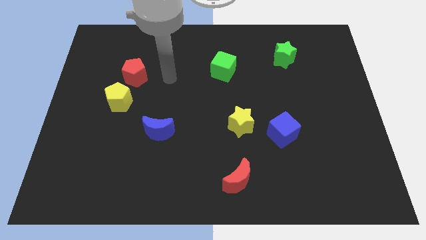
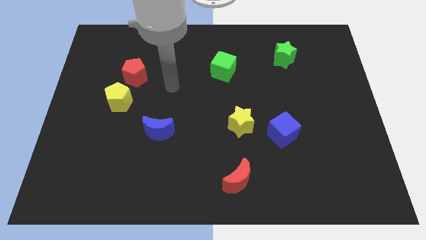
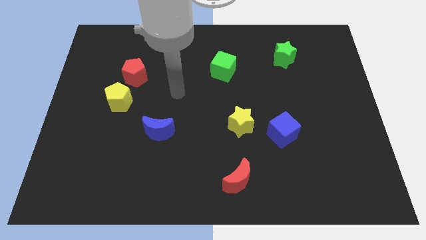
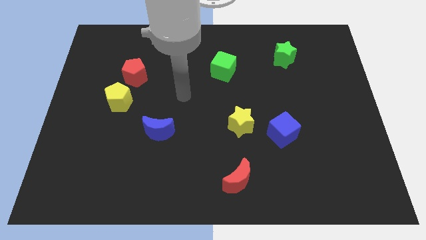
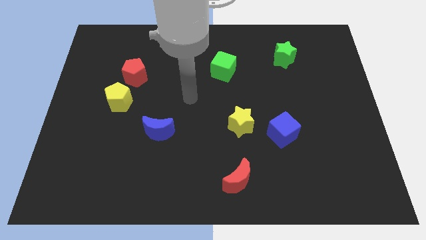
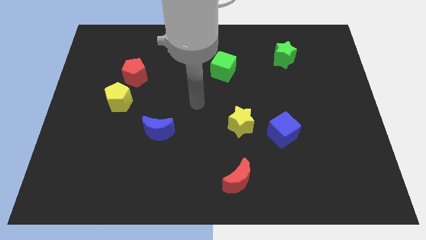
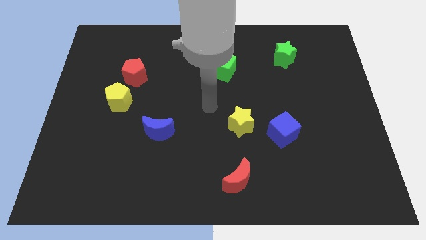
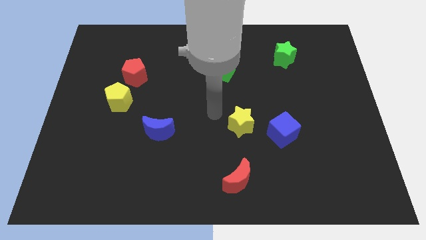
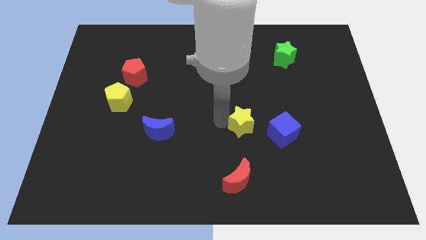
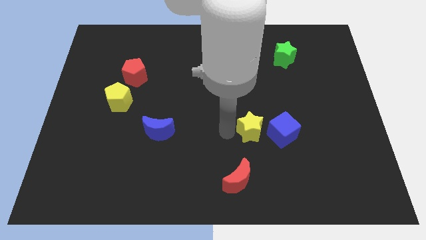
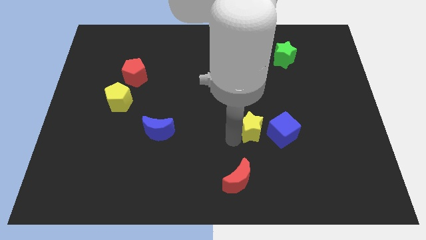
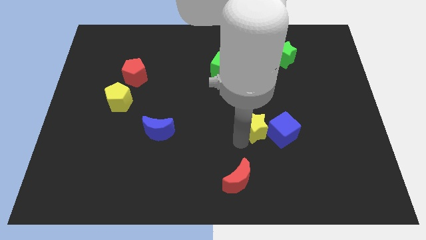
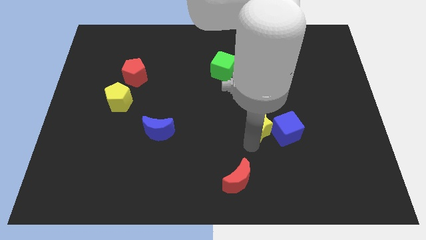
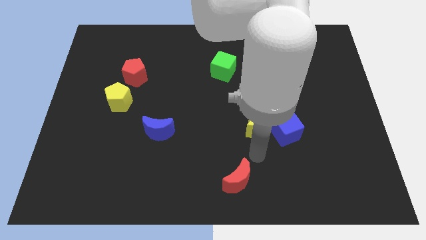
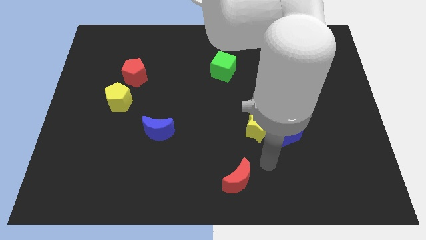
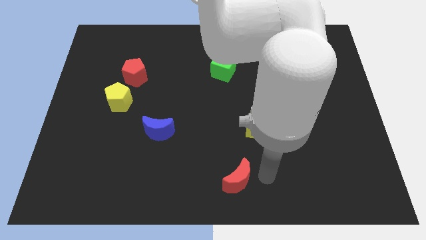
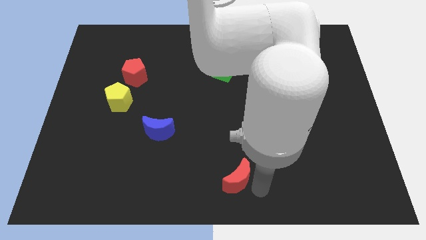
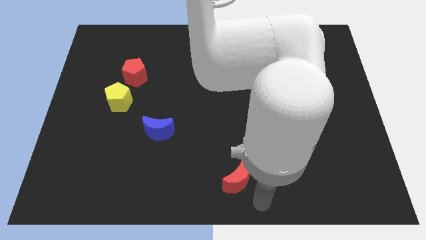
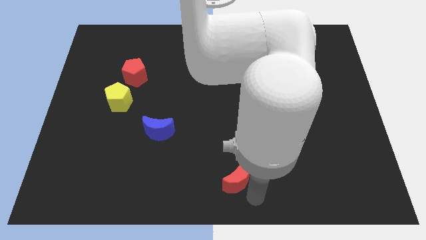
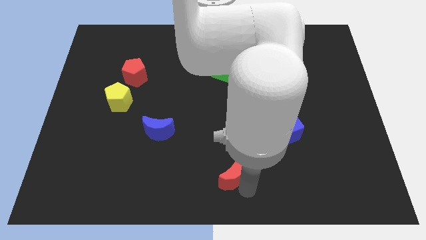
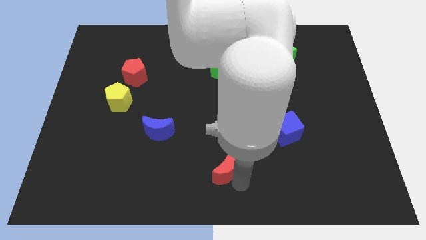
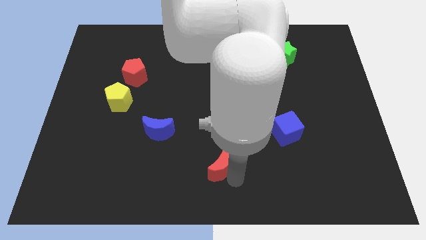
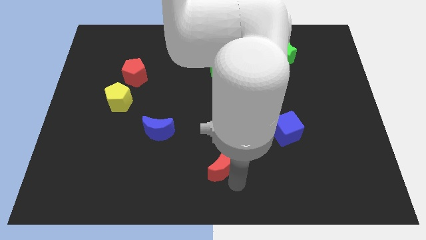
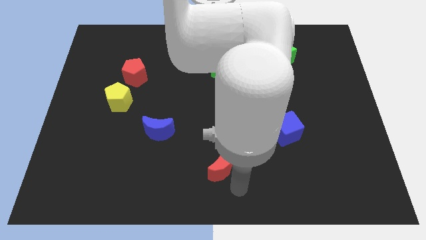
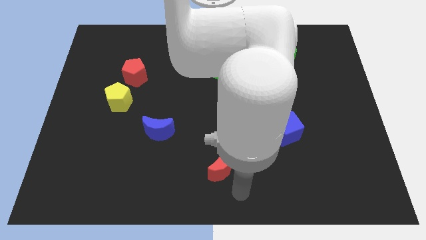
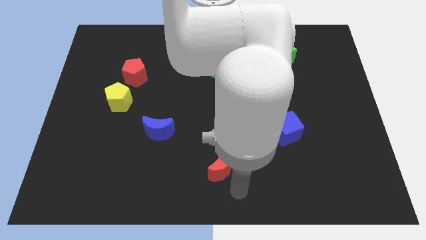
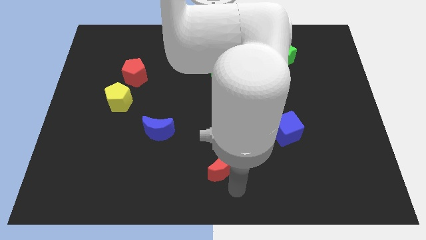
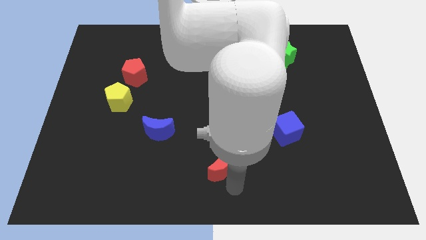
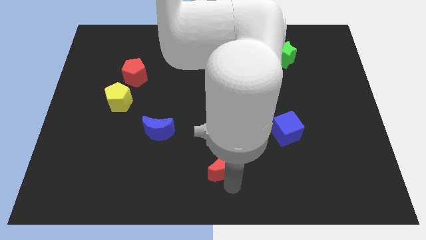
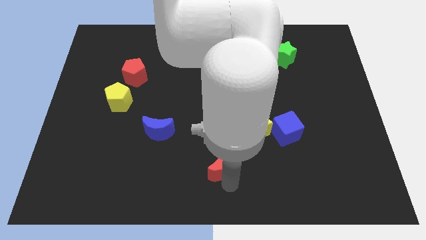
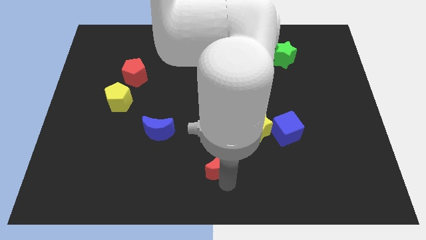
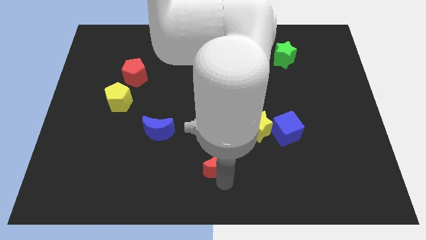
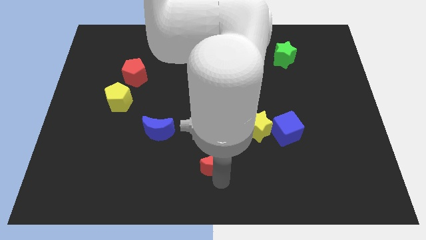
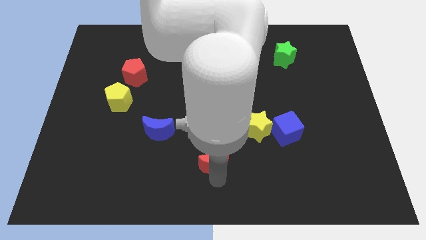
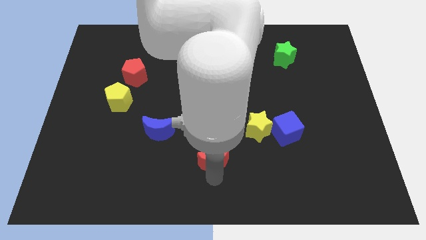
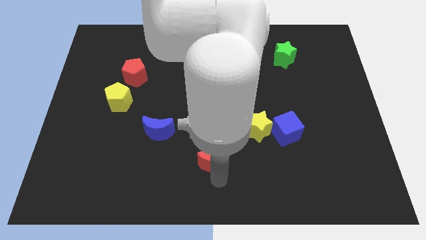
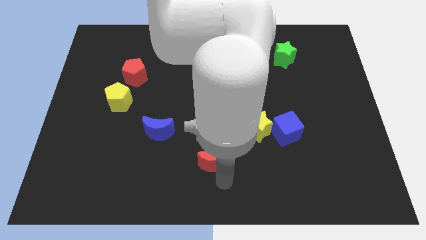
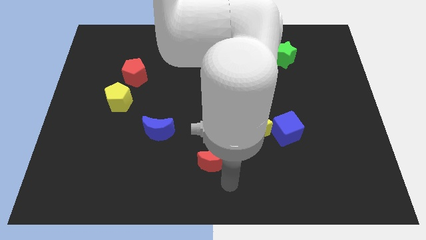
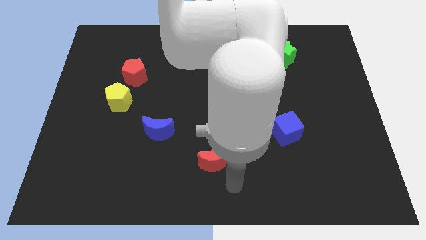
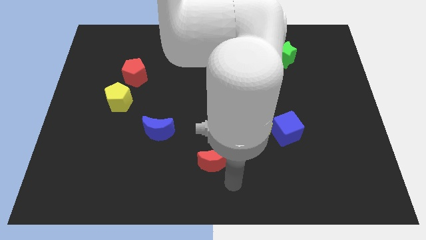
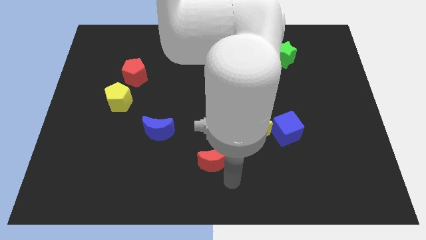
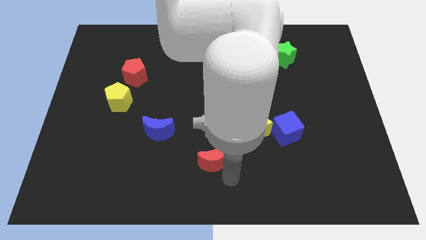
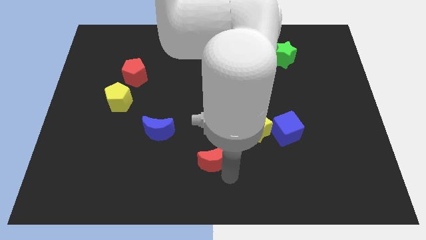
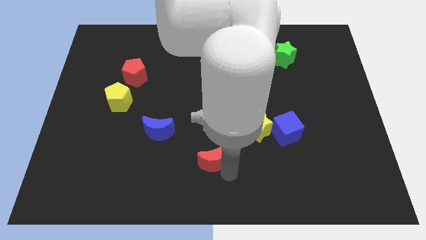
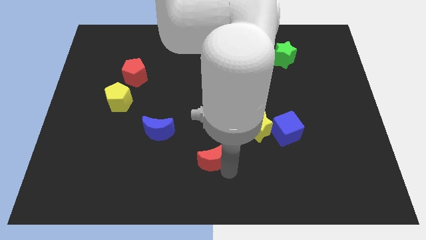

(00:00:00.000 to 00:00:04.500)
slightly push the red moon upwards and left diagonally

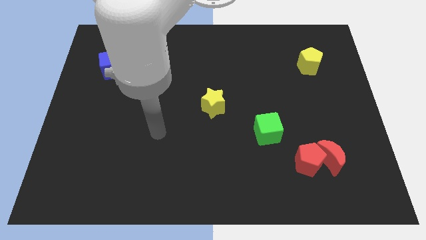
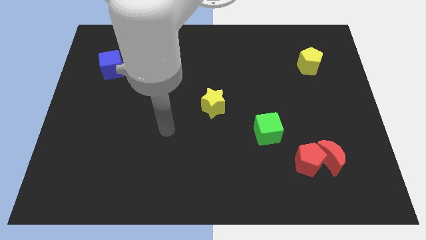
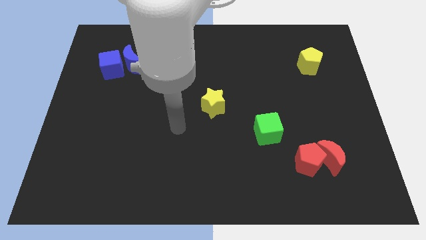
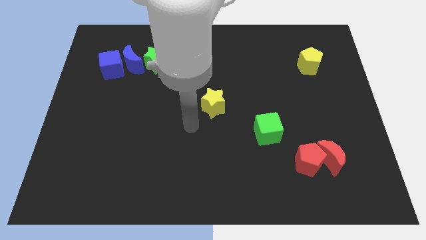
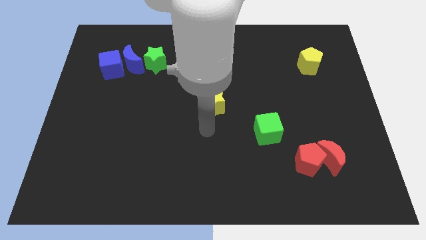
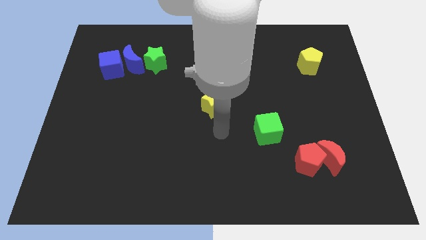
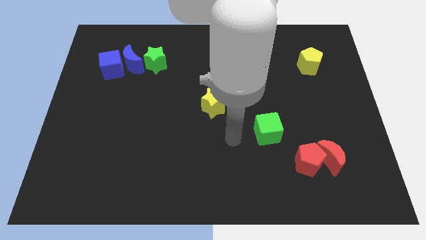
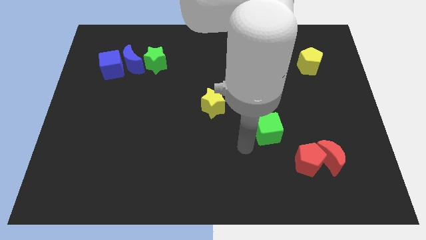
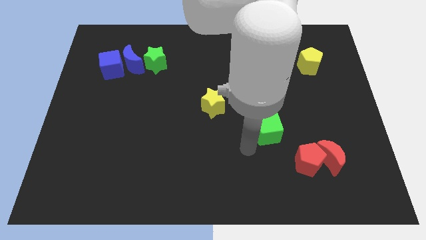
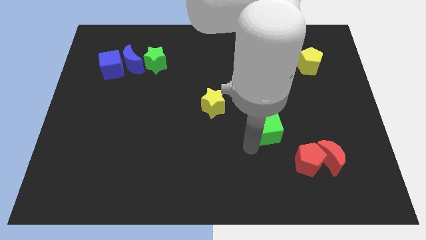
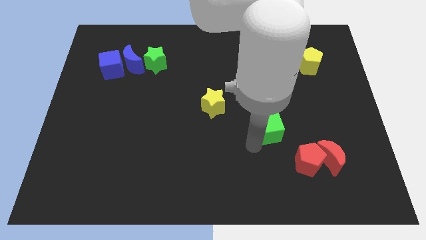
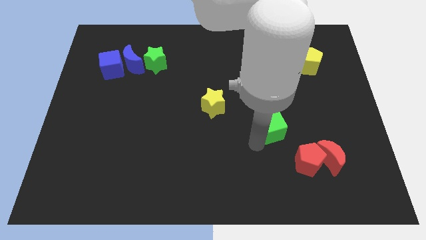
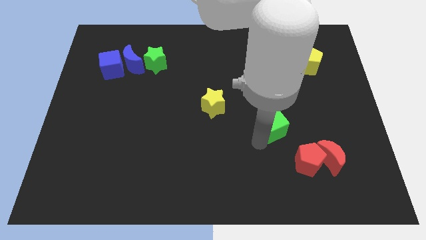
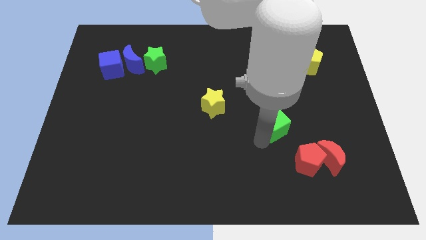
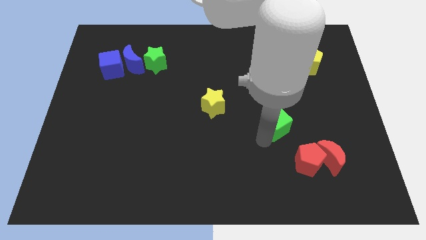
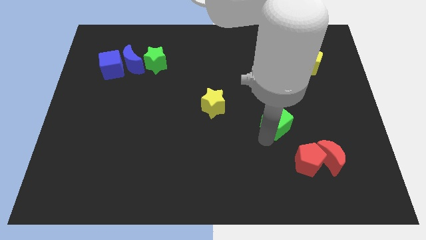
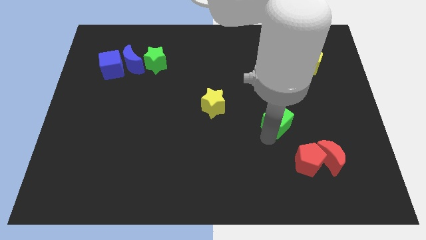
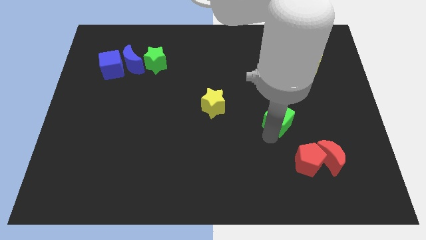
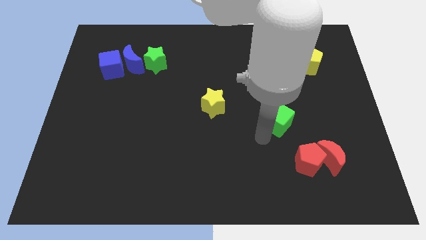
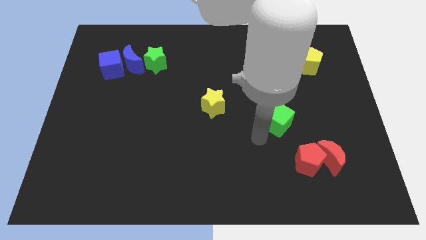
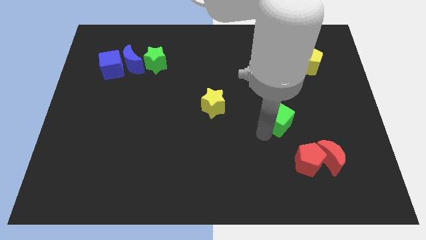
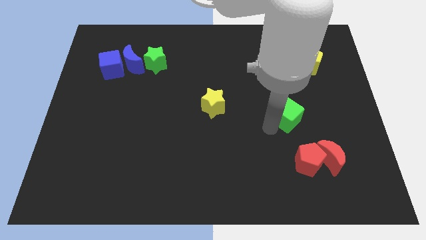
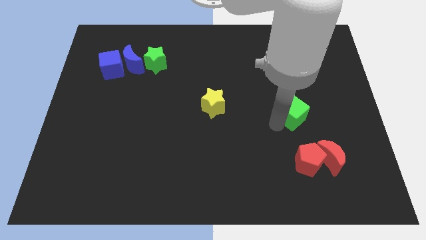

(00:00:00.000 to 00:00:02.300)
slightly move the green cube upwards and right diagonally

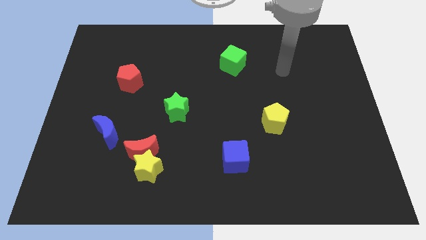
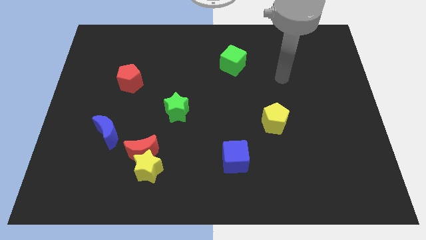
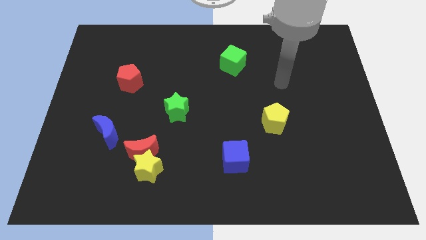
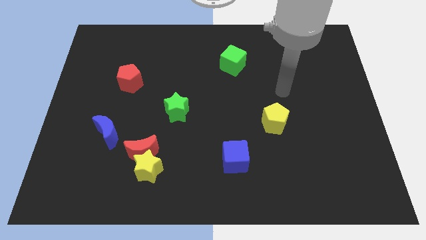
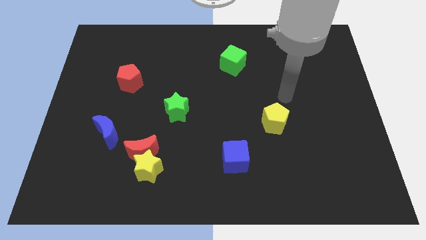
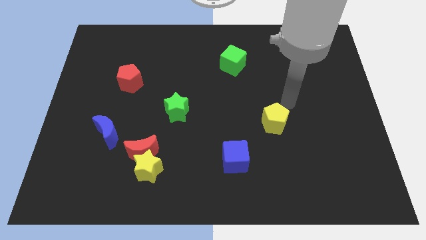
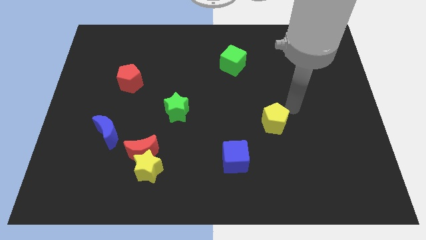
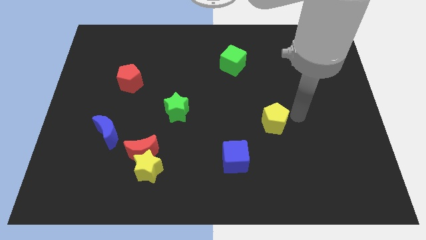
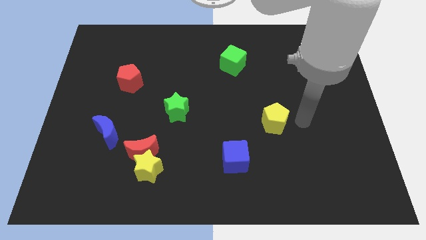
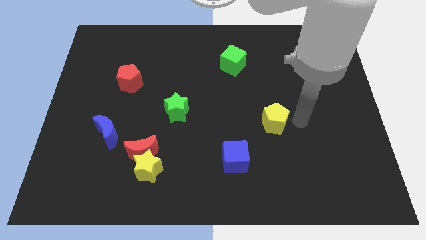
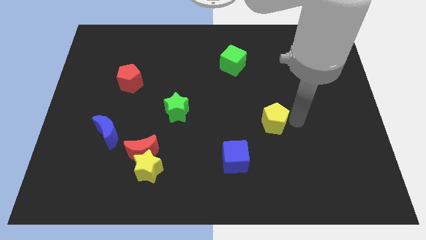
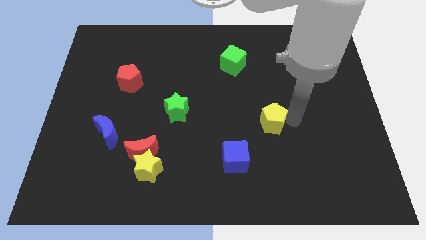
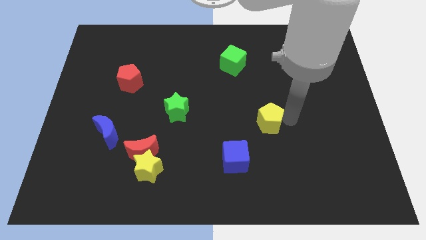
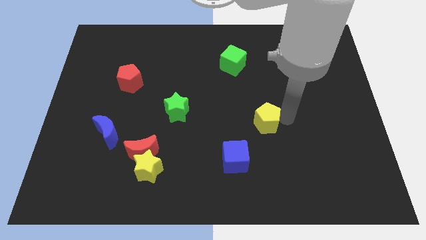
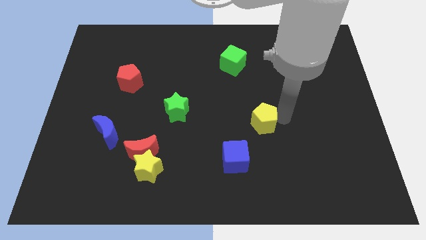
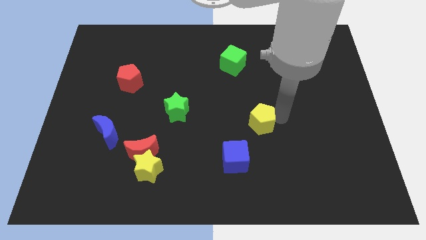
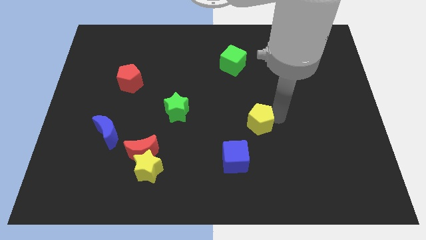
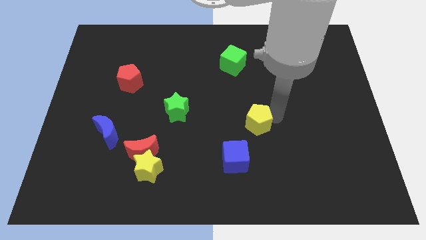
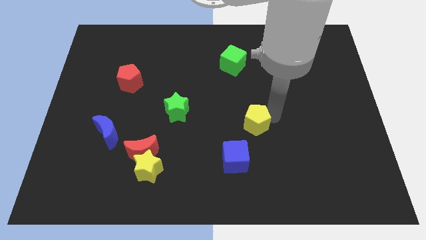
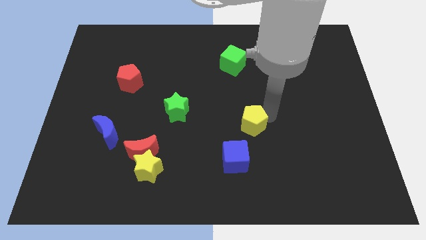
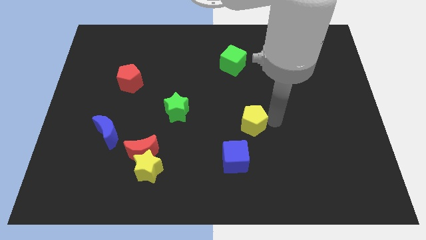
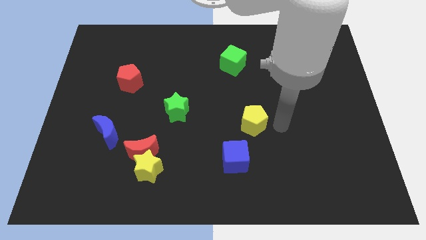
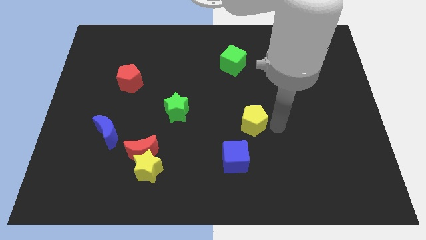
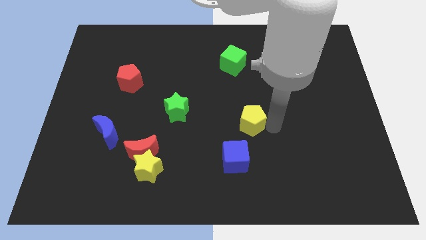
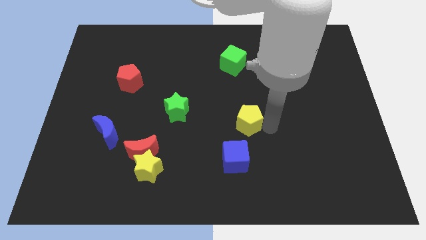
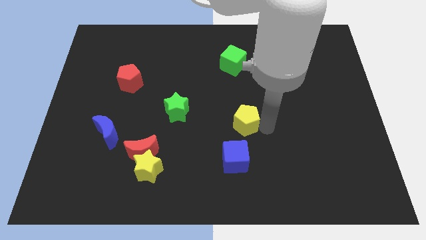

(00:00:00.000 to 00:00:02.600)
slide the yellow pentagon a little to the left
